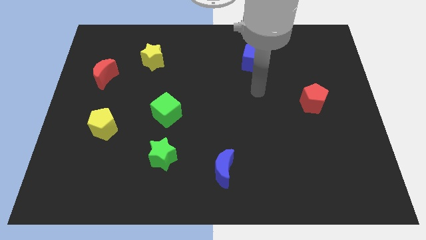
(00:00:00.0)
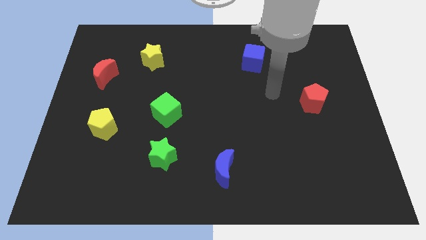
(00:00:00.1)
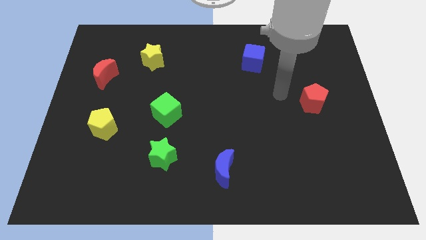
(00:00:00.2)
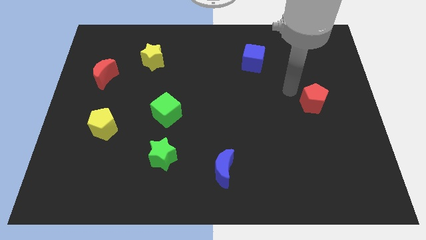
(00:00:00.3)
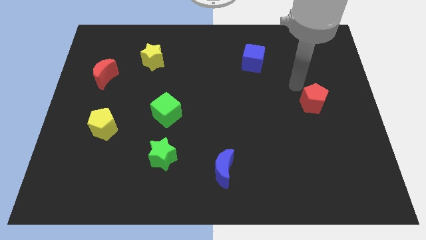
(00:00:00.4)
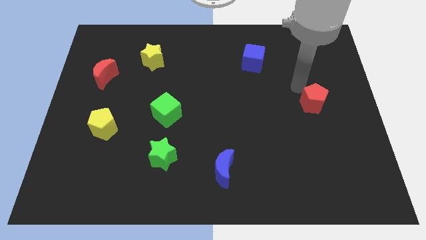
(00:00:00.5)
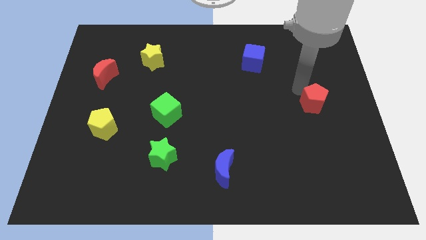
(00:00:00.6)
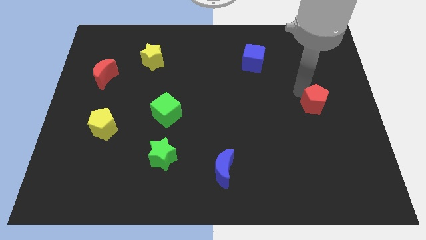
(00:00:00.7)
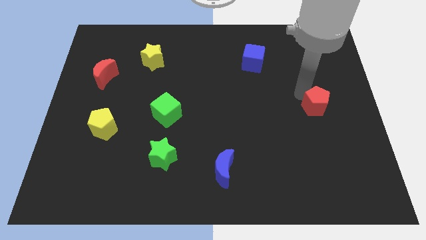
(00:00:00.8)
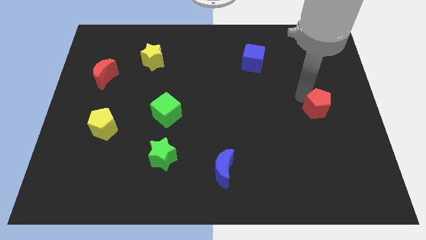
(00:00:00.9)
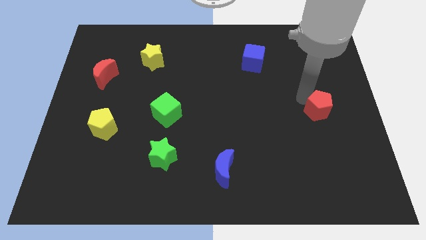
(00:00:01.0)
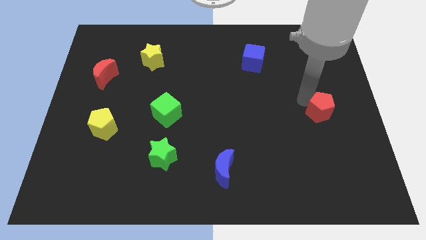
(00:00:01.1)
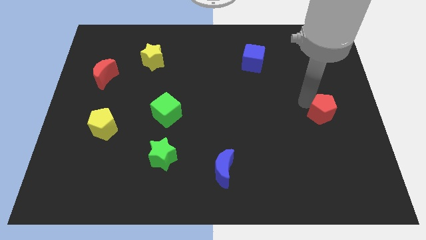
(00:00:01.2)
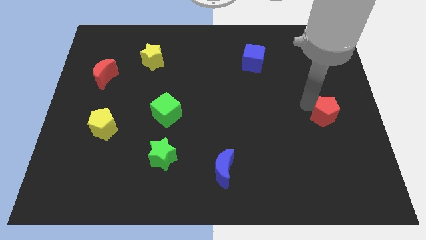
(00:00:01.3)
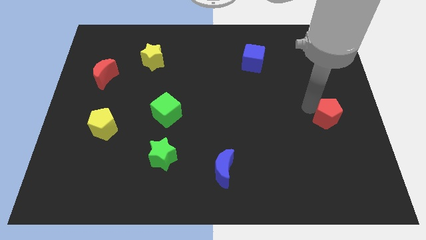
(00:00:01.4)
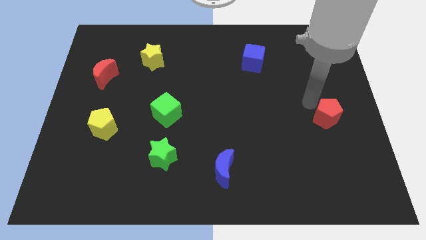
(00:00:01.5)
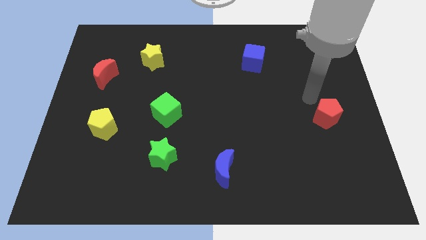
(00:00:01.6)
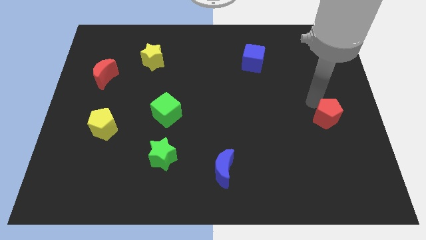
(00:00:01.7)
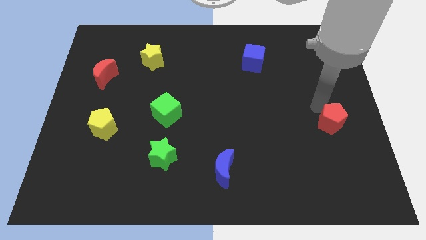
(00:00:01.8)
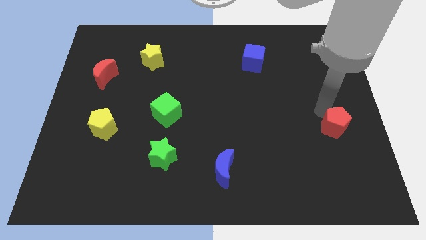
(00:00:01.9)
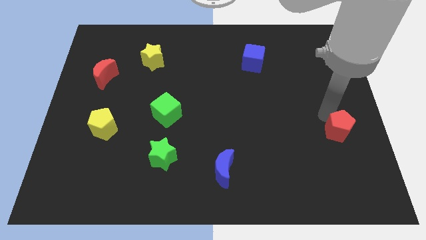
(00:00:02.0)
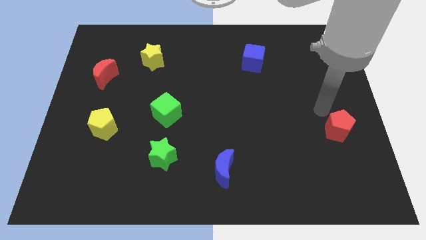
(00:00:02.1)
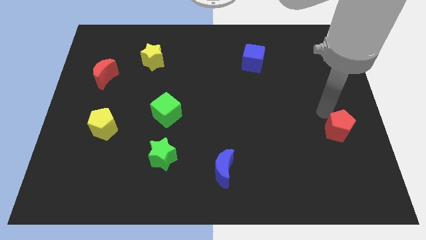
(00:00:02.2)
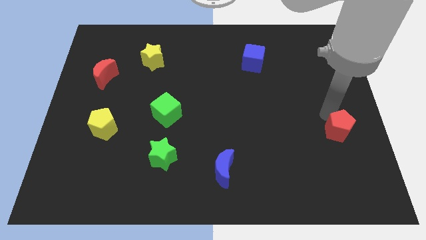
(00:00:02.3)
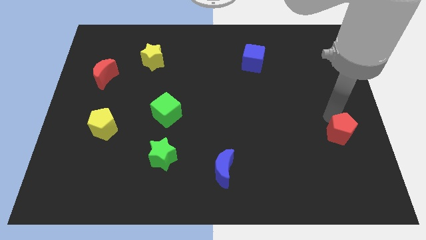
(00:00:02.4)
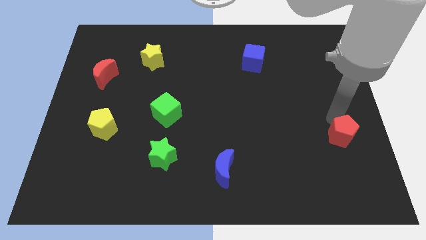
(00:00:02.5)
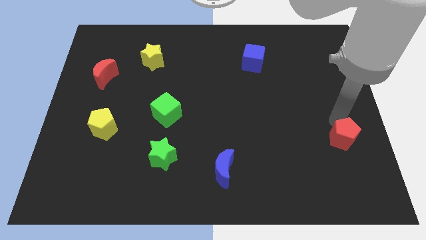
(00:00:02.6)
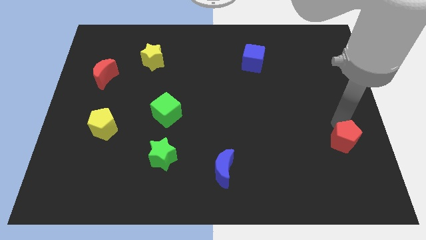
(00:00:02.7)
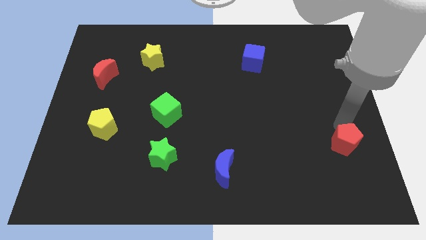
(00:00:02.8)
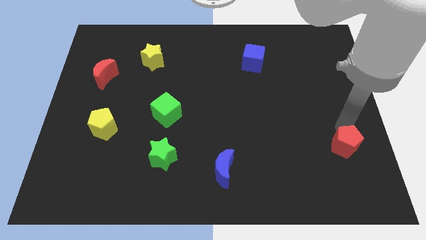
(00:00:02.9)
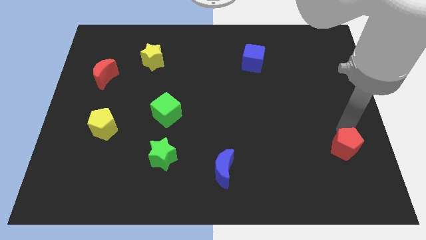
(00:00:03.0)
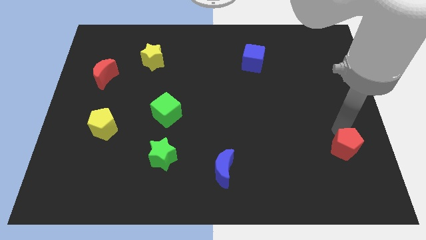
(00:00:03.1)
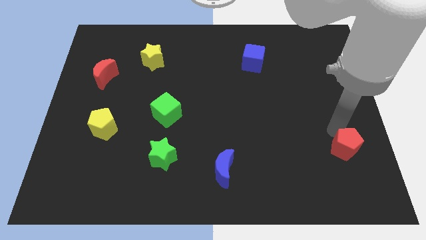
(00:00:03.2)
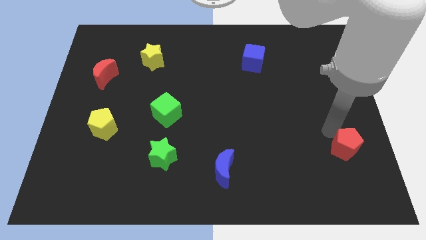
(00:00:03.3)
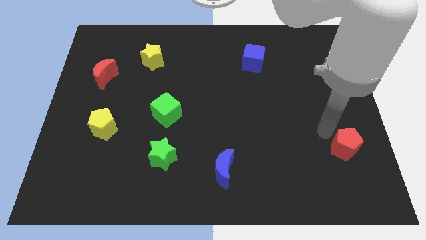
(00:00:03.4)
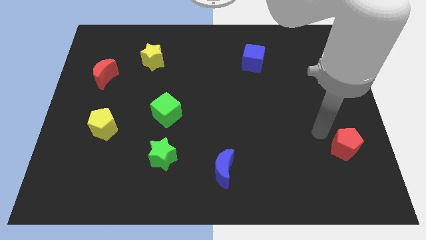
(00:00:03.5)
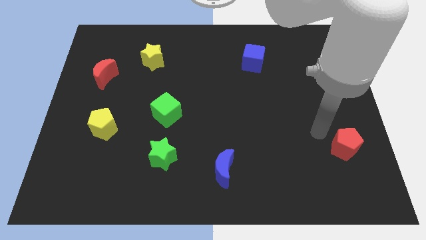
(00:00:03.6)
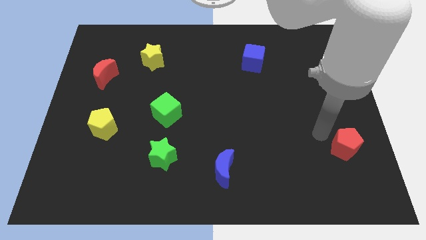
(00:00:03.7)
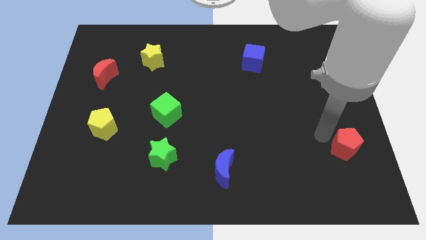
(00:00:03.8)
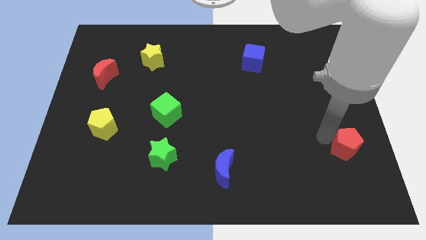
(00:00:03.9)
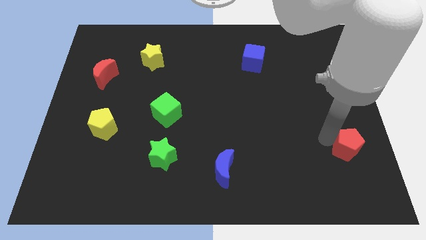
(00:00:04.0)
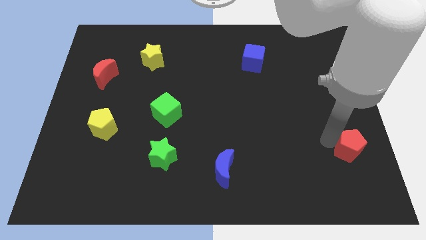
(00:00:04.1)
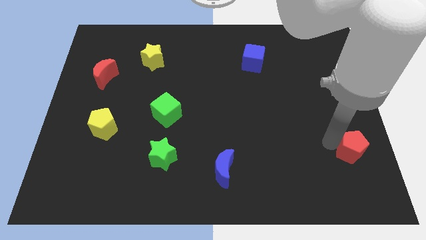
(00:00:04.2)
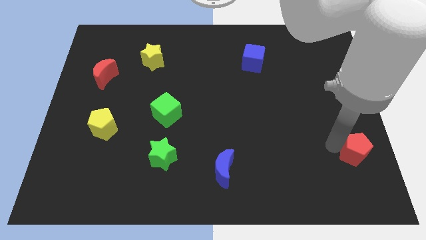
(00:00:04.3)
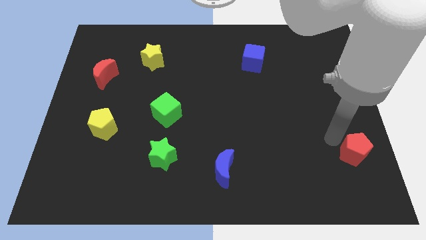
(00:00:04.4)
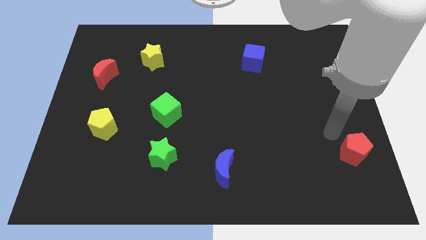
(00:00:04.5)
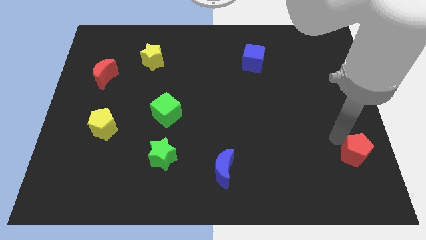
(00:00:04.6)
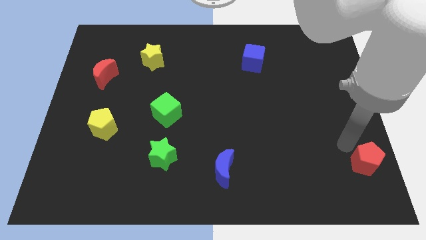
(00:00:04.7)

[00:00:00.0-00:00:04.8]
put the red pentagon to the bottom right

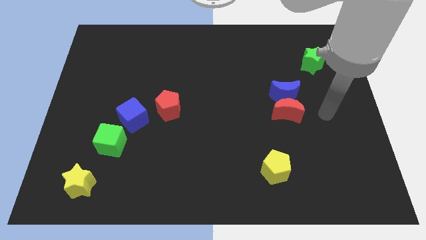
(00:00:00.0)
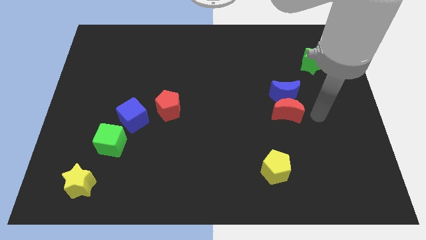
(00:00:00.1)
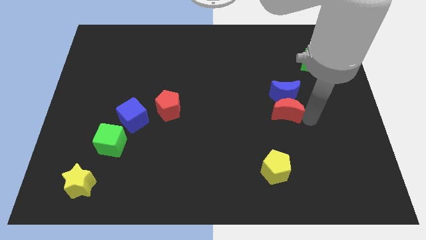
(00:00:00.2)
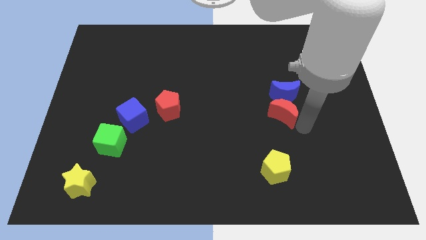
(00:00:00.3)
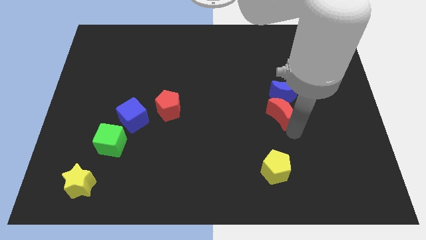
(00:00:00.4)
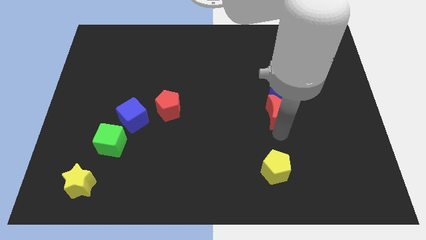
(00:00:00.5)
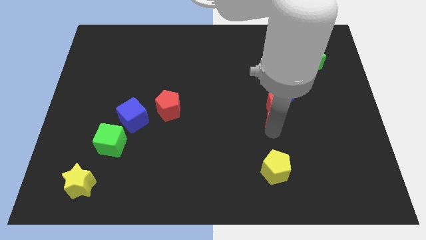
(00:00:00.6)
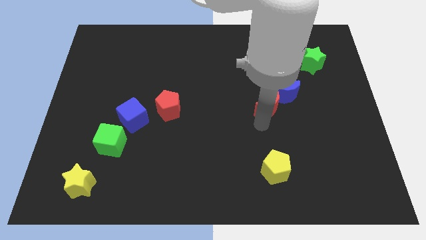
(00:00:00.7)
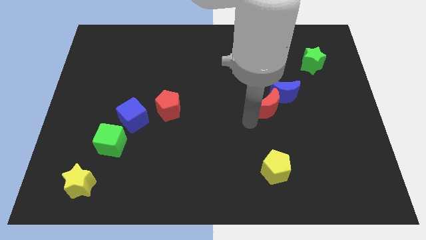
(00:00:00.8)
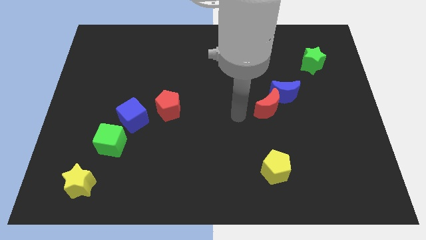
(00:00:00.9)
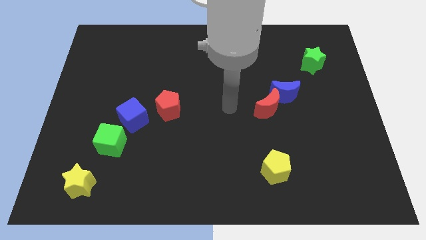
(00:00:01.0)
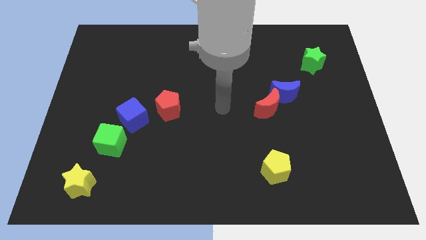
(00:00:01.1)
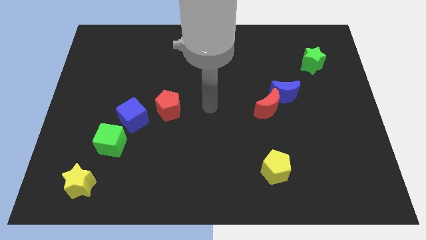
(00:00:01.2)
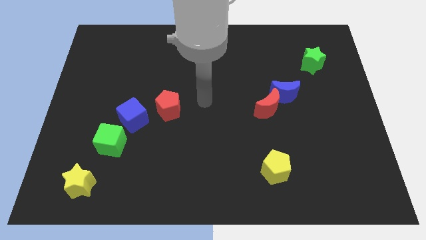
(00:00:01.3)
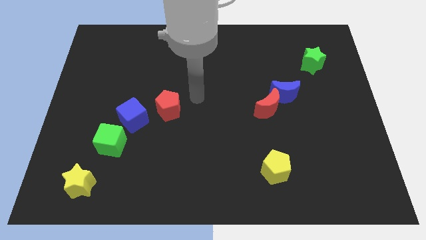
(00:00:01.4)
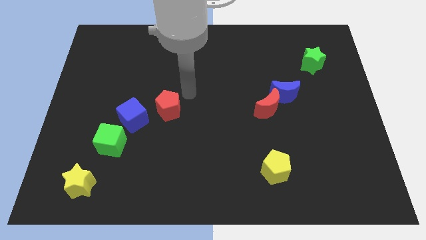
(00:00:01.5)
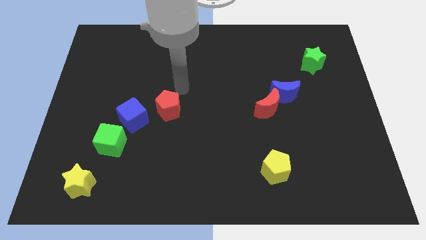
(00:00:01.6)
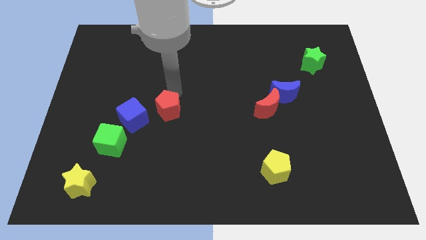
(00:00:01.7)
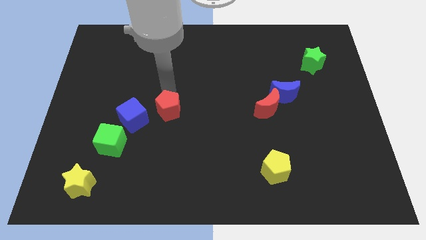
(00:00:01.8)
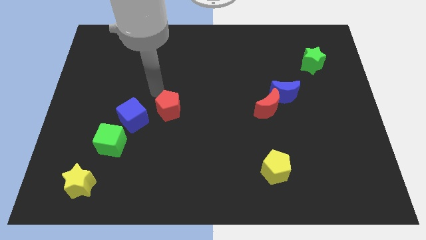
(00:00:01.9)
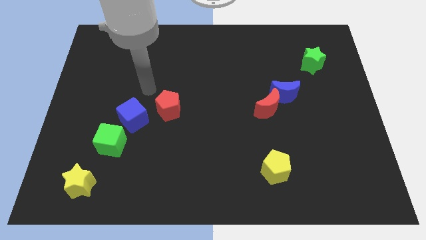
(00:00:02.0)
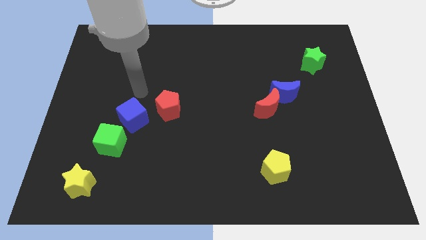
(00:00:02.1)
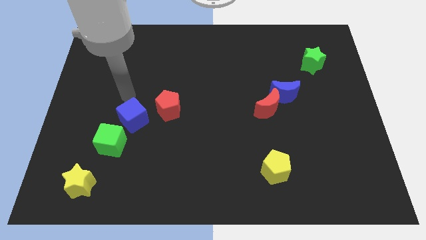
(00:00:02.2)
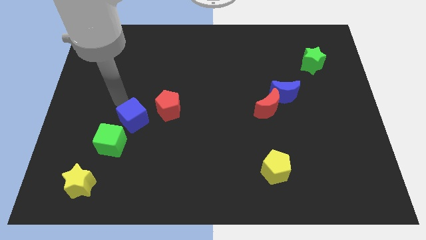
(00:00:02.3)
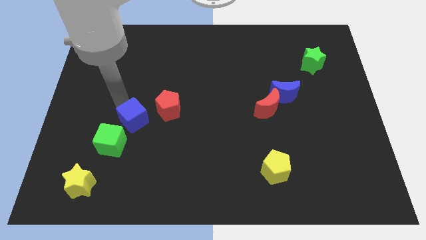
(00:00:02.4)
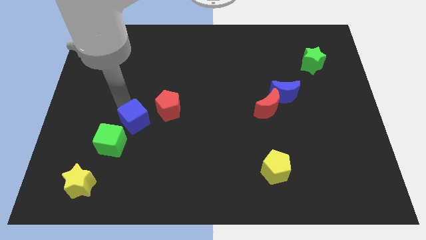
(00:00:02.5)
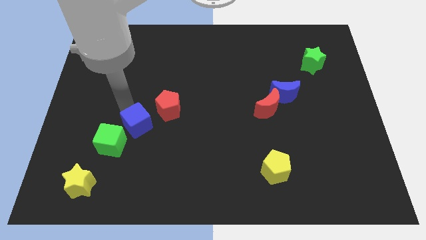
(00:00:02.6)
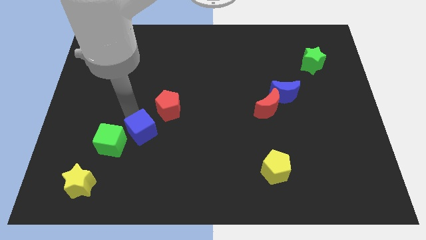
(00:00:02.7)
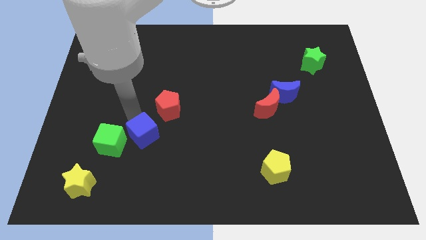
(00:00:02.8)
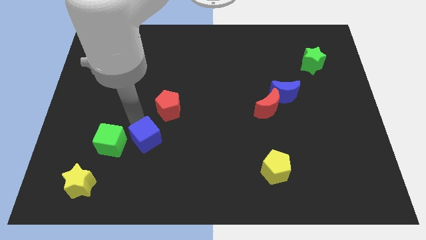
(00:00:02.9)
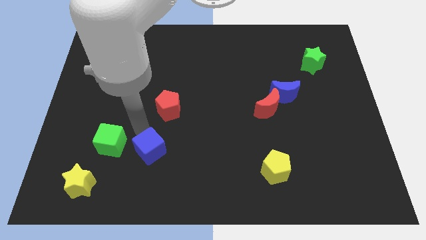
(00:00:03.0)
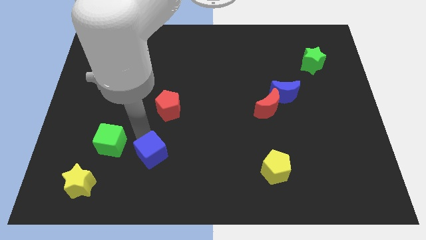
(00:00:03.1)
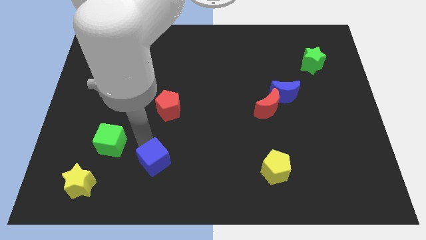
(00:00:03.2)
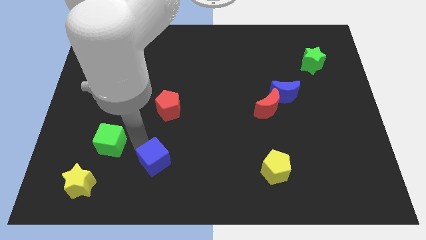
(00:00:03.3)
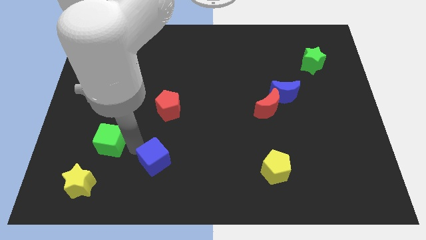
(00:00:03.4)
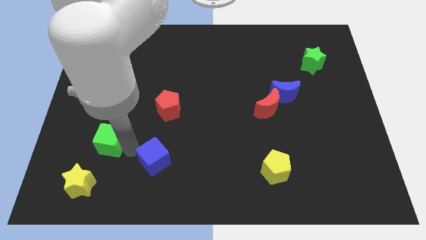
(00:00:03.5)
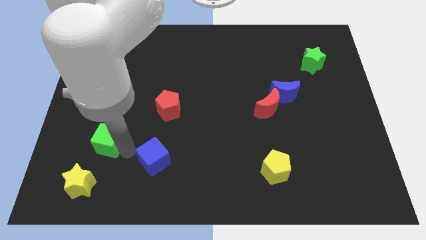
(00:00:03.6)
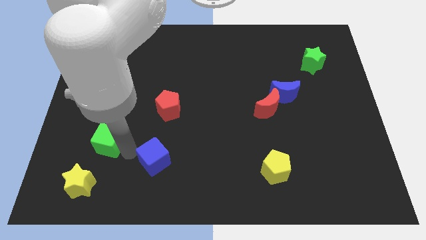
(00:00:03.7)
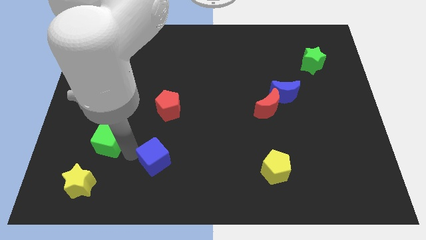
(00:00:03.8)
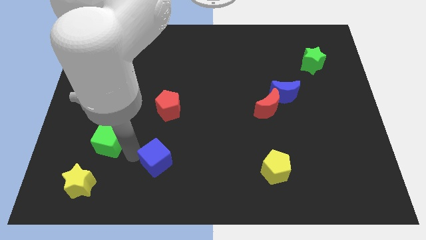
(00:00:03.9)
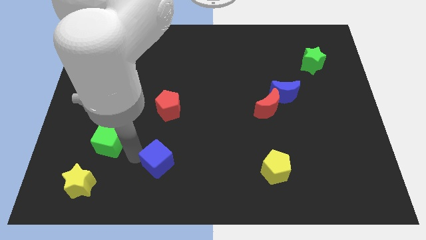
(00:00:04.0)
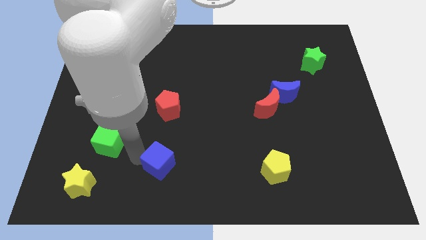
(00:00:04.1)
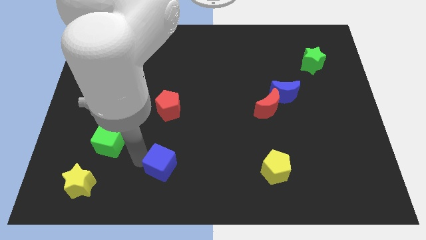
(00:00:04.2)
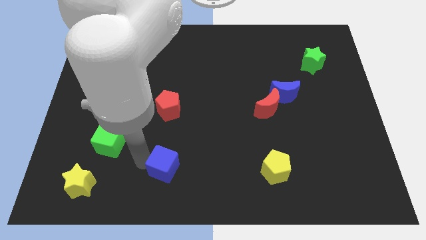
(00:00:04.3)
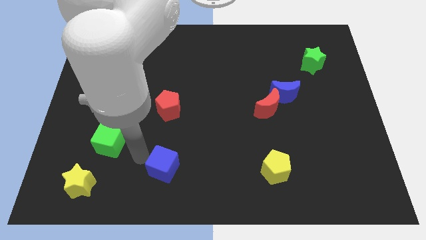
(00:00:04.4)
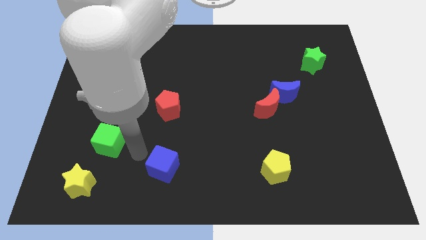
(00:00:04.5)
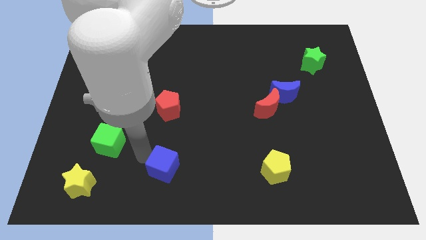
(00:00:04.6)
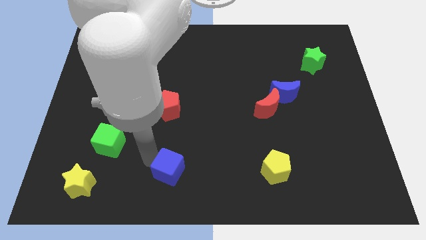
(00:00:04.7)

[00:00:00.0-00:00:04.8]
put the blue cube to the bottom
